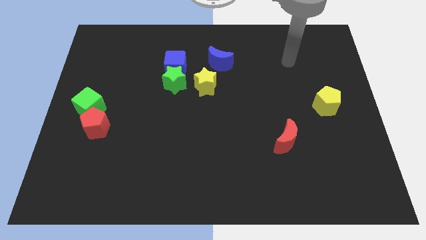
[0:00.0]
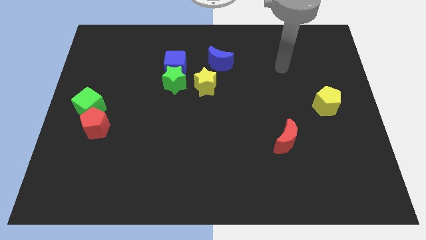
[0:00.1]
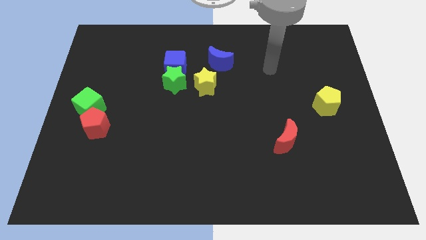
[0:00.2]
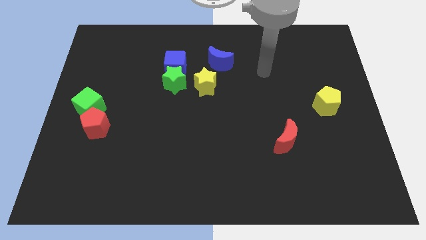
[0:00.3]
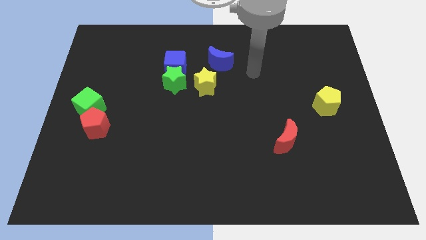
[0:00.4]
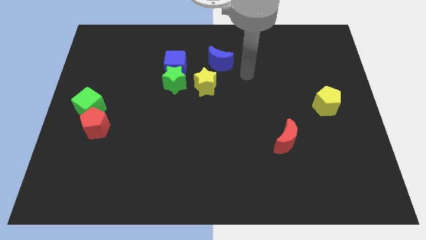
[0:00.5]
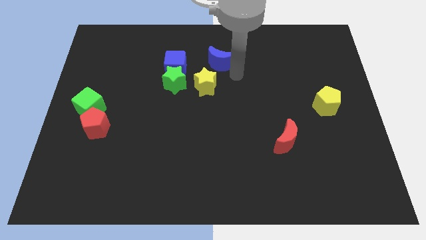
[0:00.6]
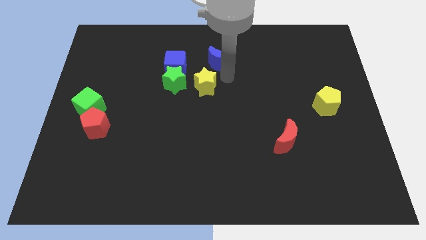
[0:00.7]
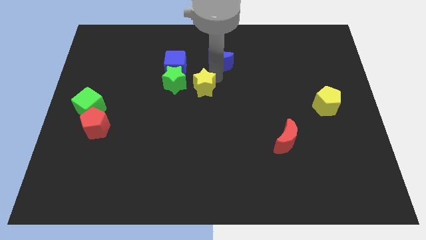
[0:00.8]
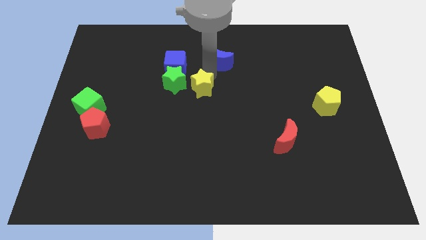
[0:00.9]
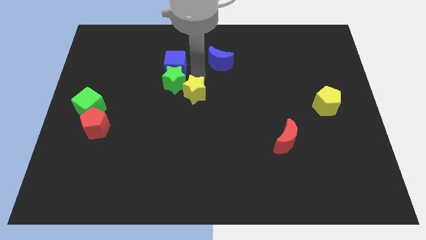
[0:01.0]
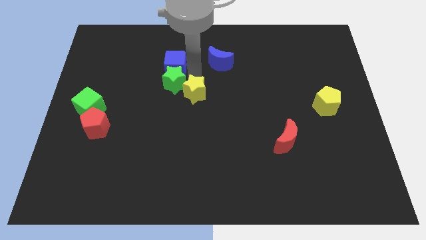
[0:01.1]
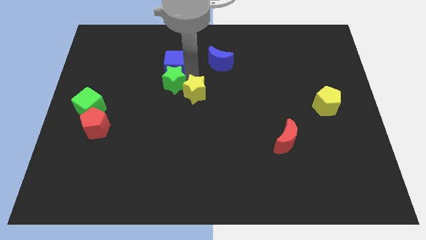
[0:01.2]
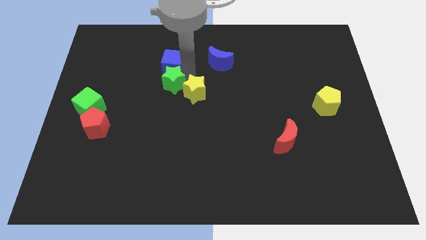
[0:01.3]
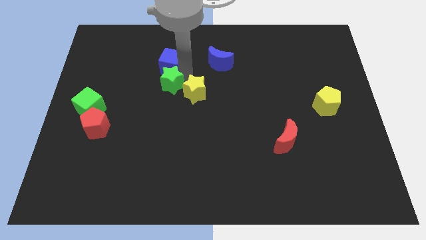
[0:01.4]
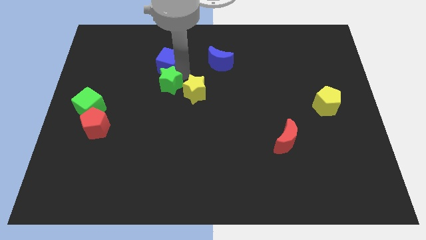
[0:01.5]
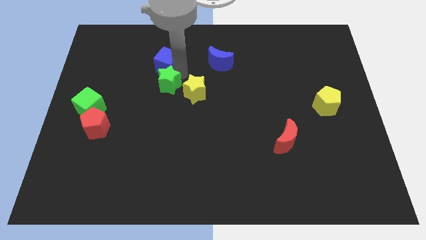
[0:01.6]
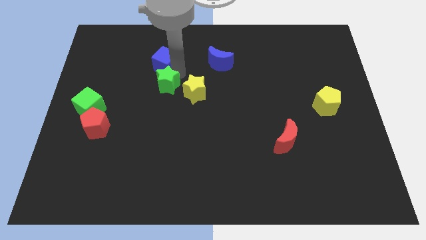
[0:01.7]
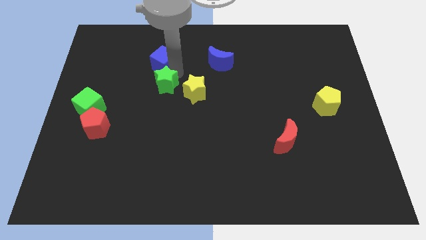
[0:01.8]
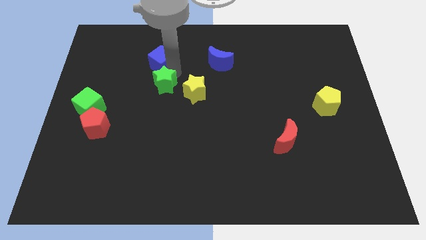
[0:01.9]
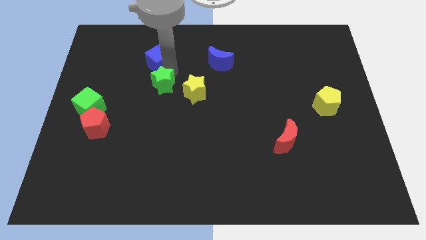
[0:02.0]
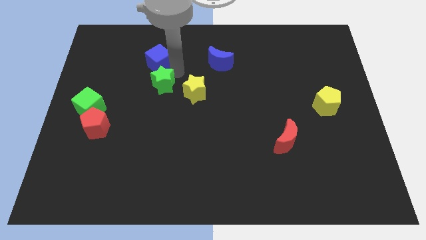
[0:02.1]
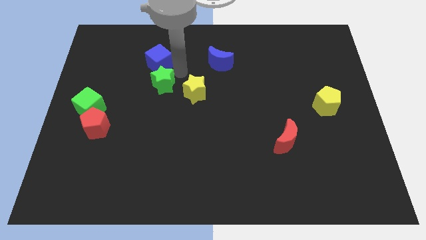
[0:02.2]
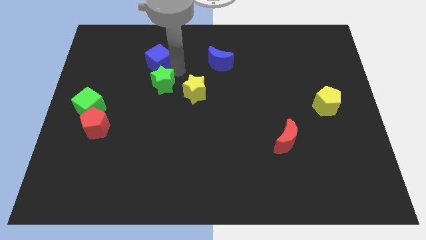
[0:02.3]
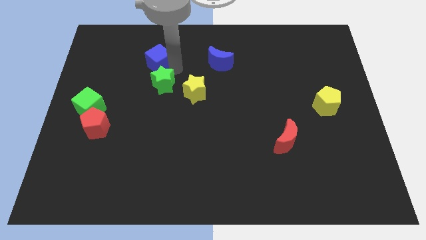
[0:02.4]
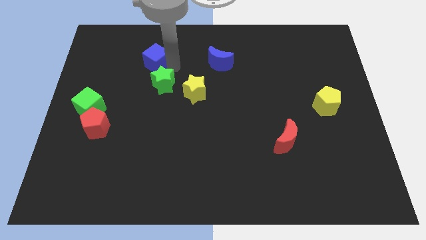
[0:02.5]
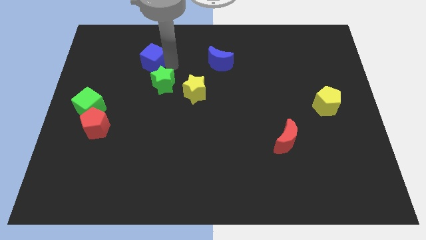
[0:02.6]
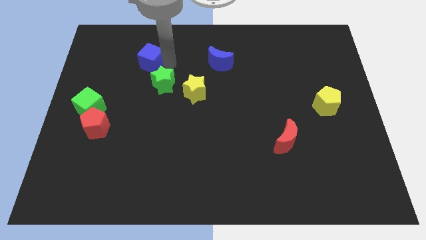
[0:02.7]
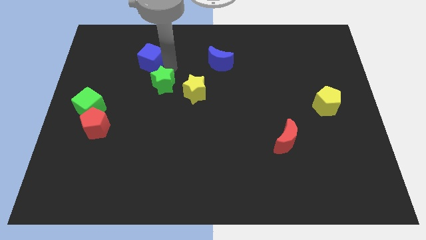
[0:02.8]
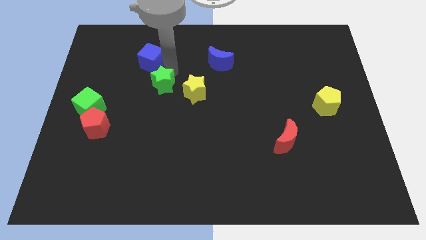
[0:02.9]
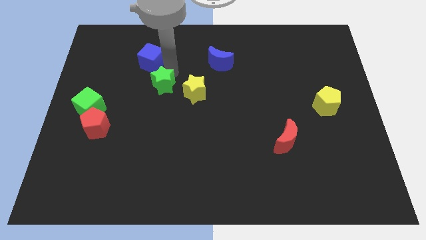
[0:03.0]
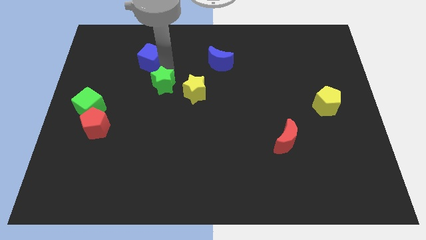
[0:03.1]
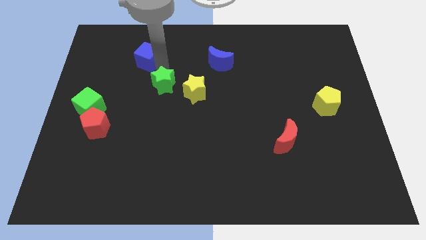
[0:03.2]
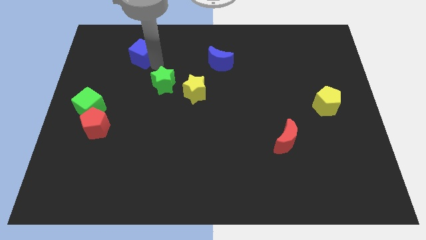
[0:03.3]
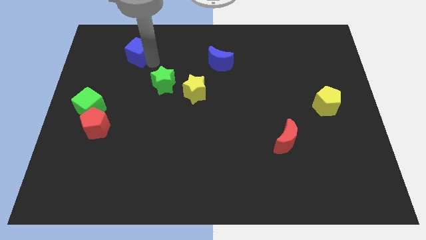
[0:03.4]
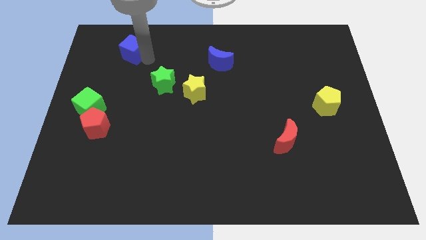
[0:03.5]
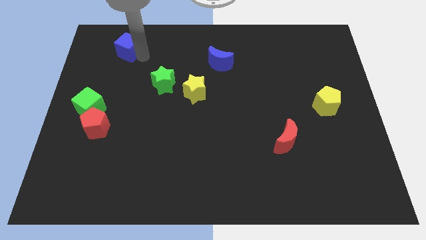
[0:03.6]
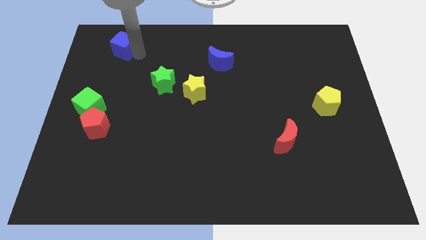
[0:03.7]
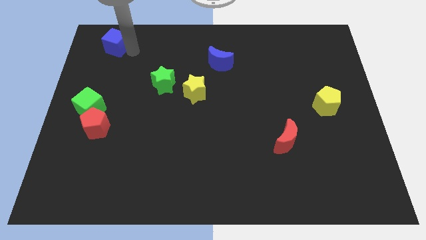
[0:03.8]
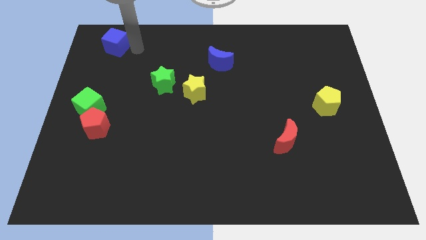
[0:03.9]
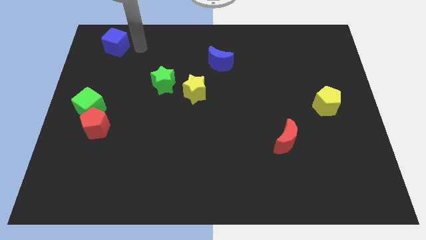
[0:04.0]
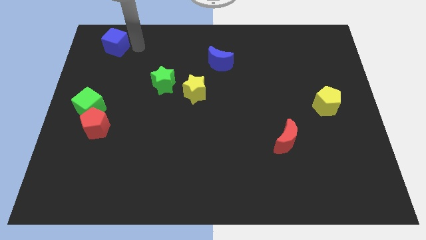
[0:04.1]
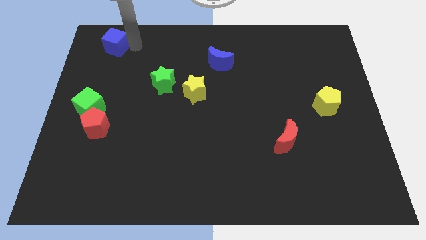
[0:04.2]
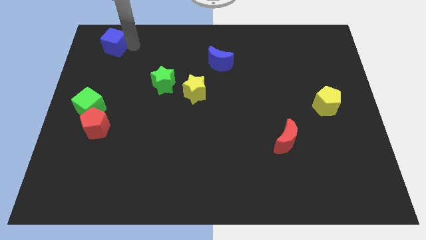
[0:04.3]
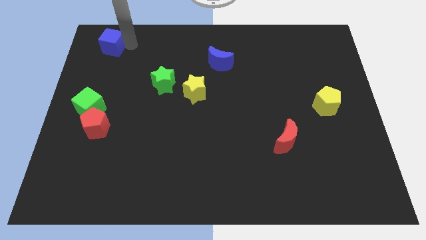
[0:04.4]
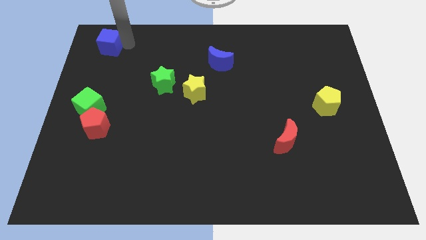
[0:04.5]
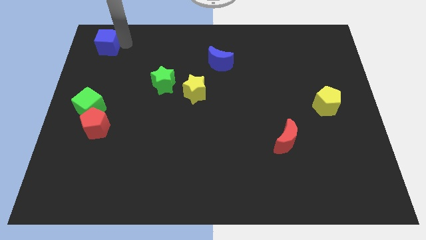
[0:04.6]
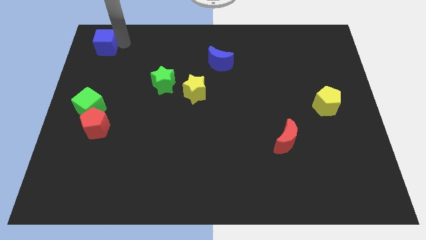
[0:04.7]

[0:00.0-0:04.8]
move the blue cube to the top left corner

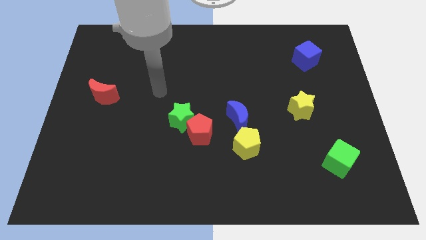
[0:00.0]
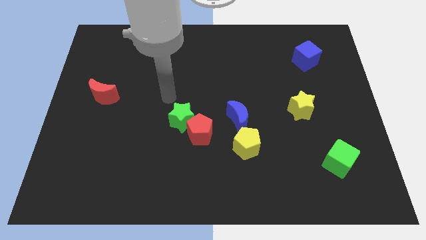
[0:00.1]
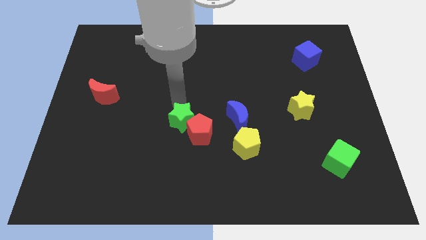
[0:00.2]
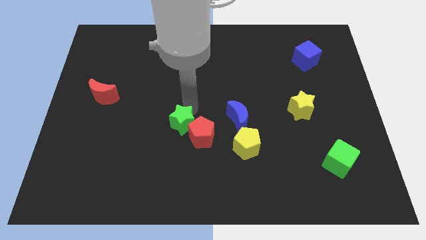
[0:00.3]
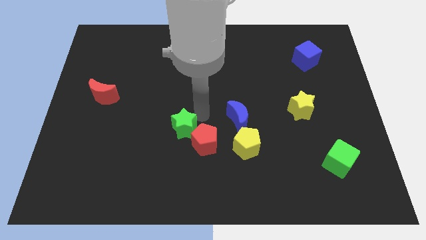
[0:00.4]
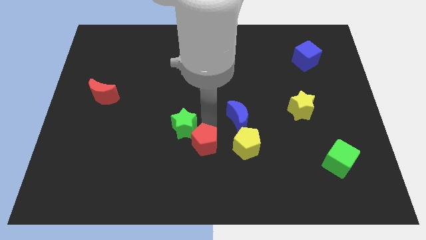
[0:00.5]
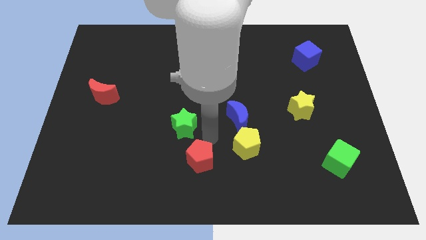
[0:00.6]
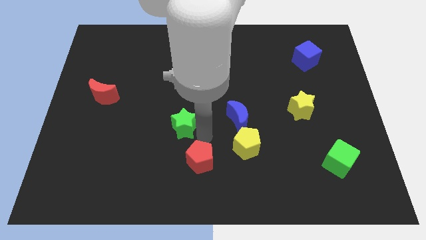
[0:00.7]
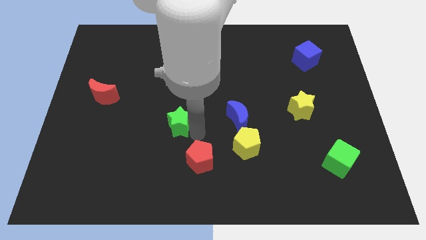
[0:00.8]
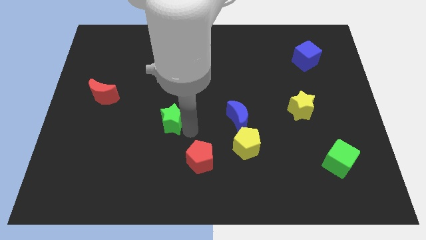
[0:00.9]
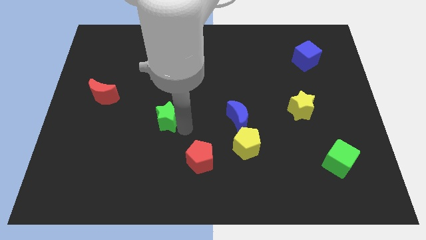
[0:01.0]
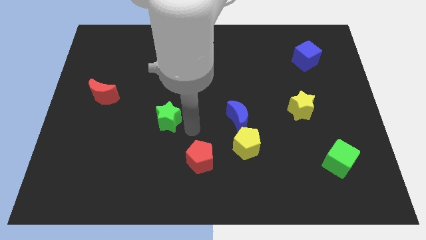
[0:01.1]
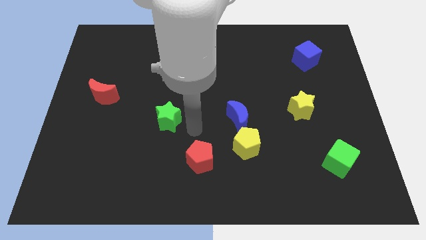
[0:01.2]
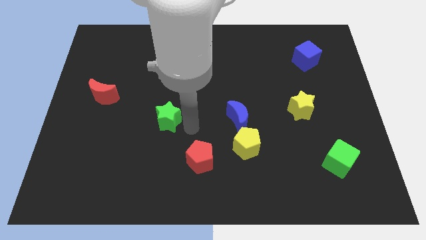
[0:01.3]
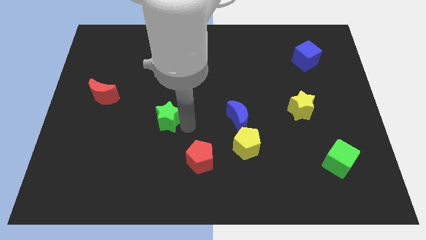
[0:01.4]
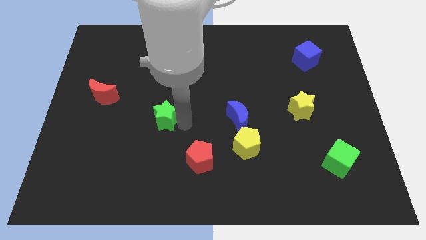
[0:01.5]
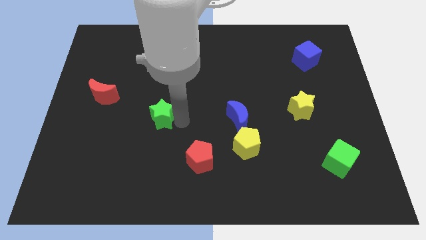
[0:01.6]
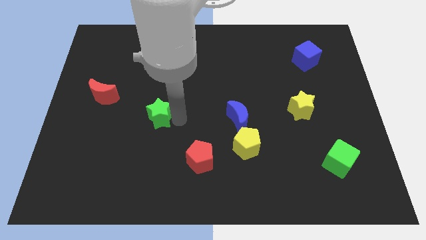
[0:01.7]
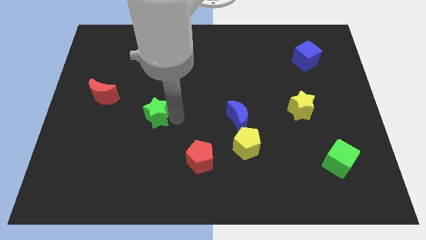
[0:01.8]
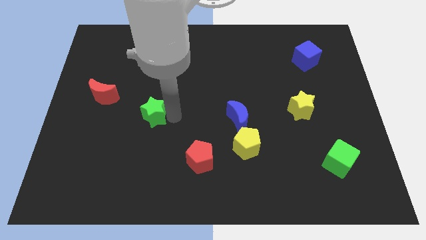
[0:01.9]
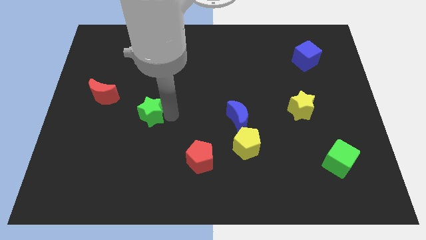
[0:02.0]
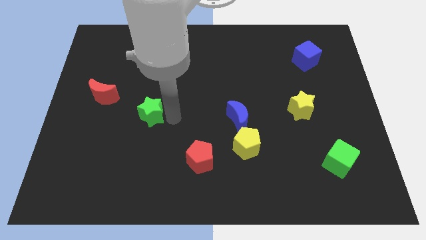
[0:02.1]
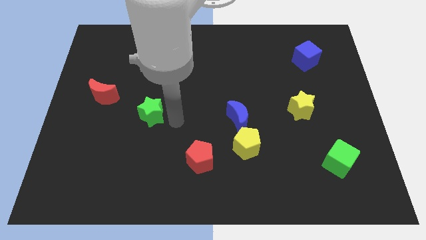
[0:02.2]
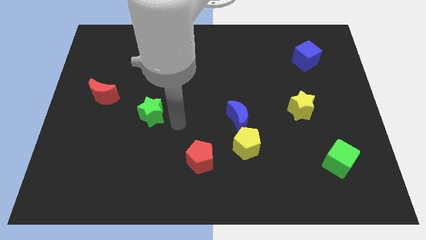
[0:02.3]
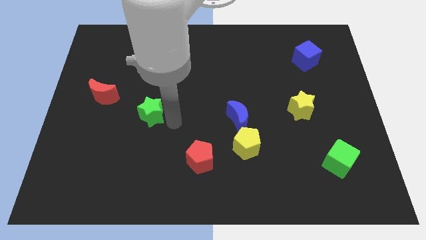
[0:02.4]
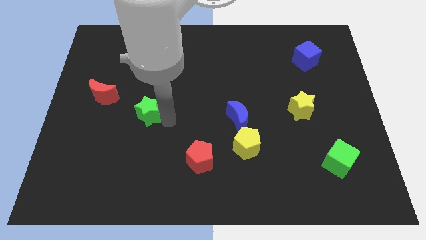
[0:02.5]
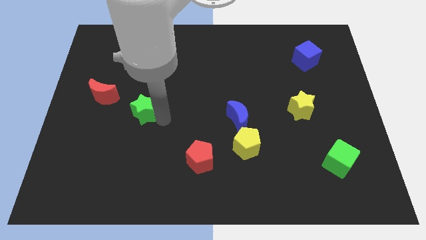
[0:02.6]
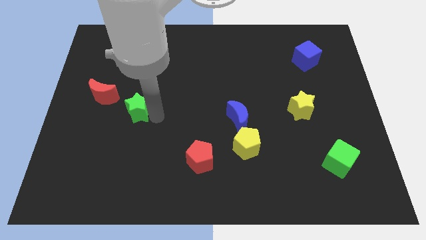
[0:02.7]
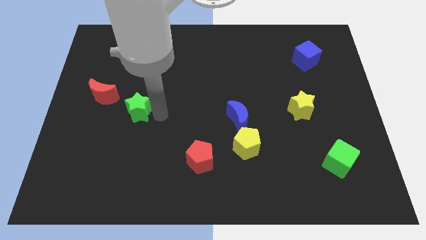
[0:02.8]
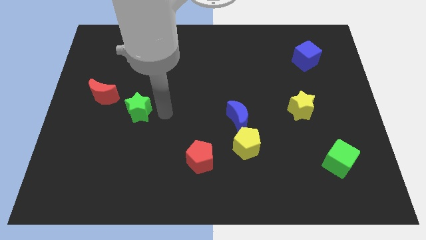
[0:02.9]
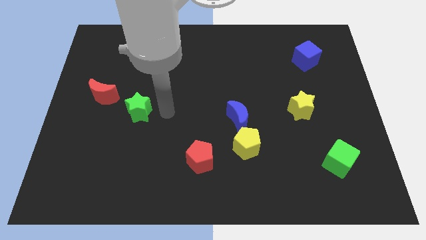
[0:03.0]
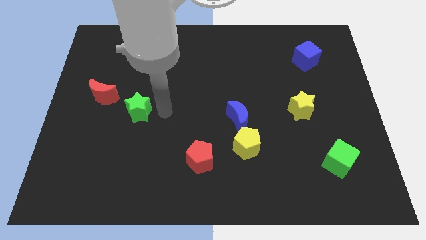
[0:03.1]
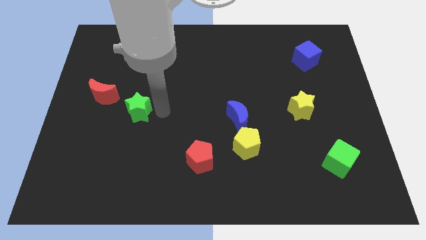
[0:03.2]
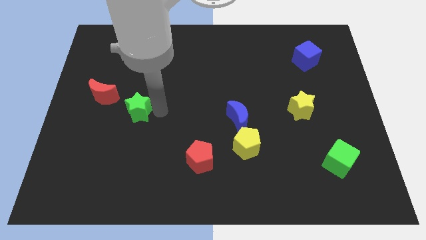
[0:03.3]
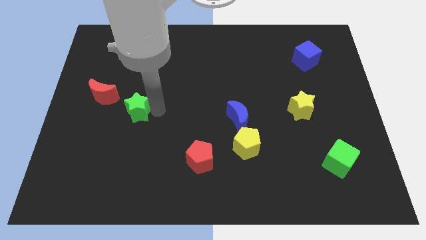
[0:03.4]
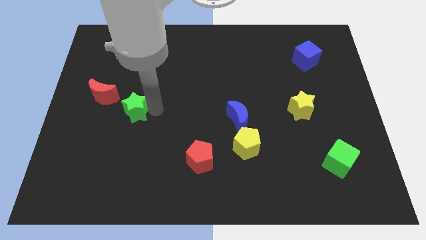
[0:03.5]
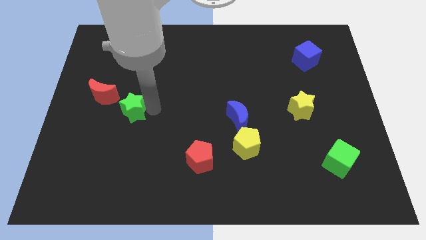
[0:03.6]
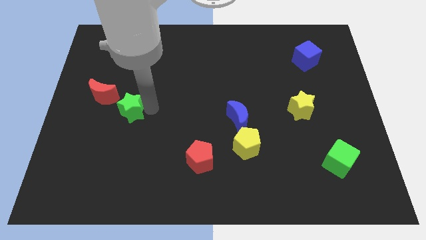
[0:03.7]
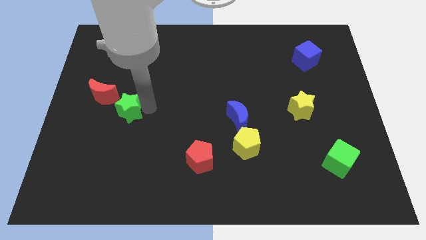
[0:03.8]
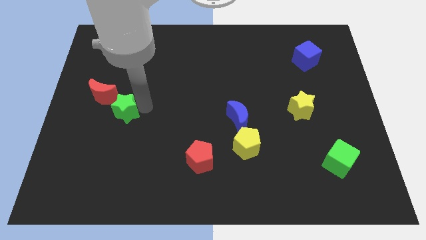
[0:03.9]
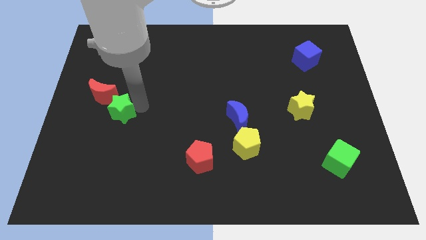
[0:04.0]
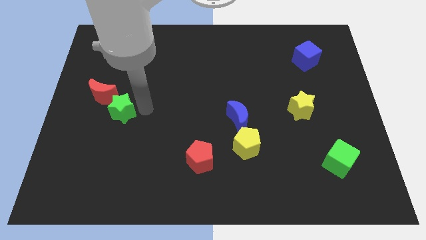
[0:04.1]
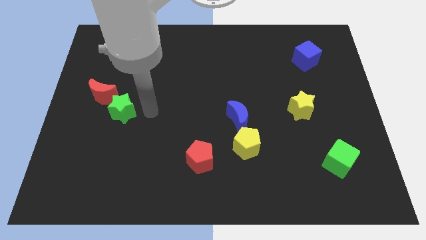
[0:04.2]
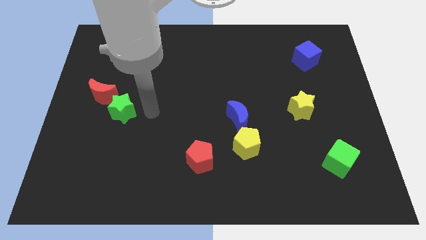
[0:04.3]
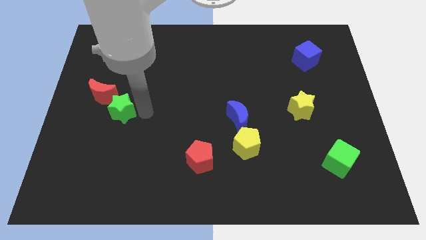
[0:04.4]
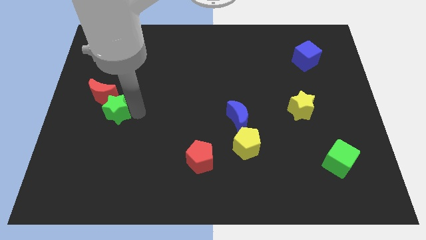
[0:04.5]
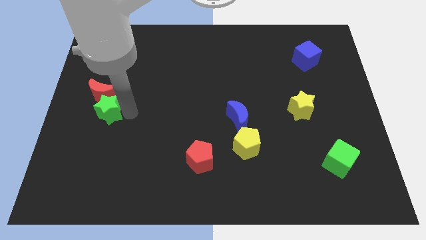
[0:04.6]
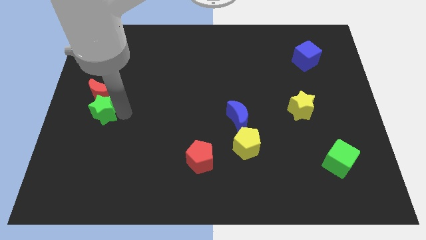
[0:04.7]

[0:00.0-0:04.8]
push the green star to the left side of the board
